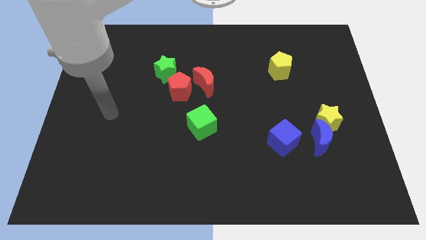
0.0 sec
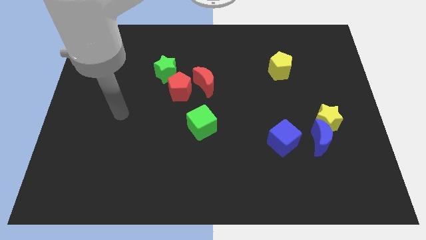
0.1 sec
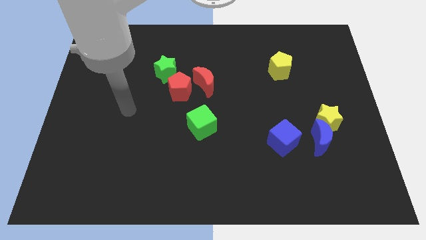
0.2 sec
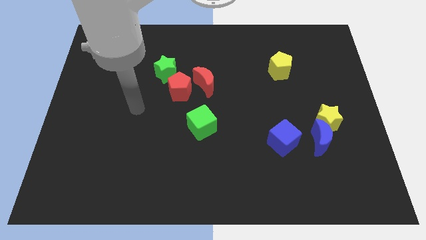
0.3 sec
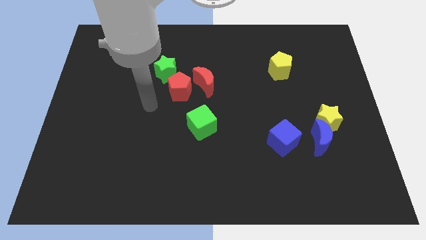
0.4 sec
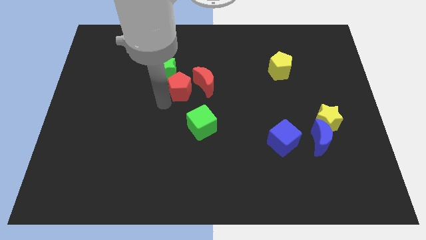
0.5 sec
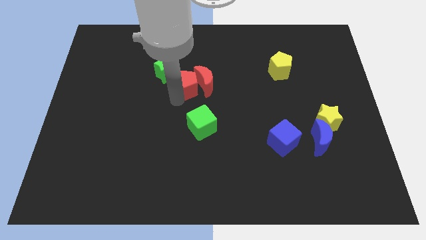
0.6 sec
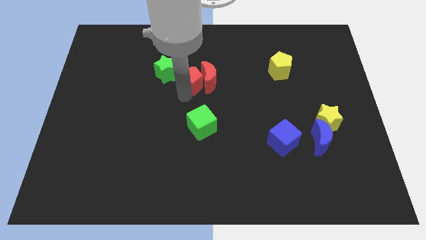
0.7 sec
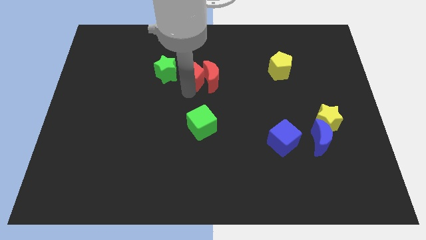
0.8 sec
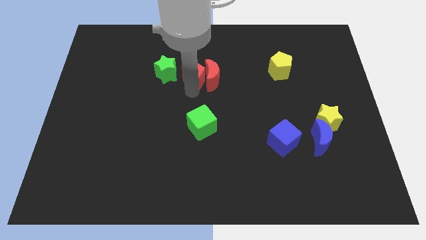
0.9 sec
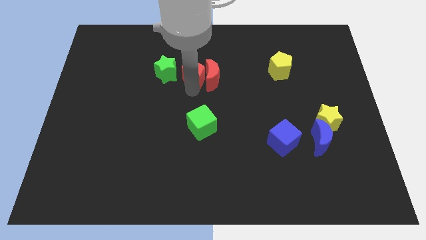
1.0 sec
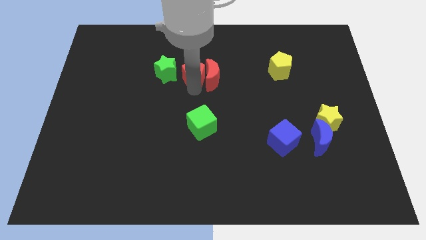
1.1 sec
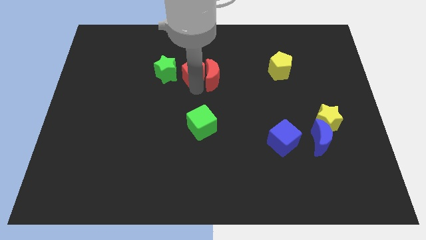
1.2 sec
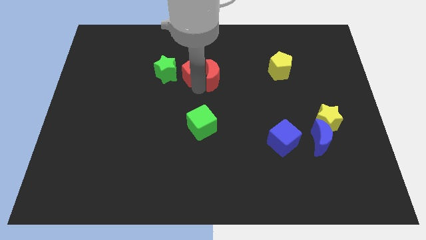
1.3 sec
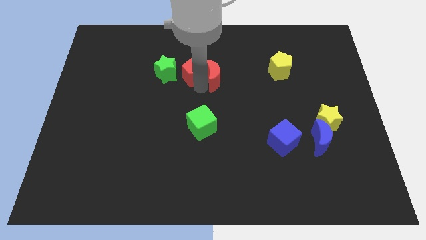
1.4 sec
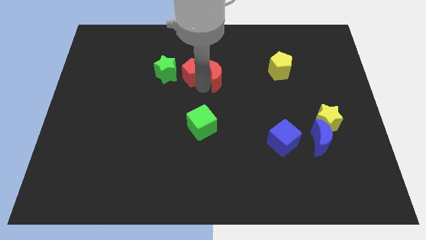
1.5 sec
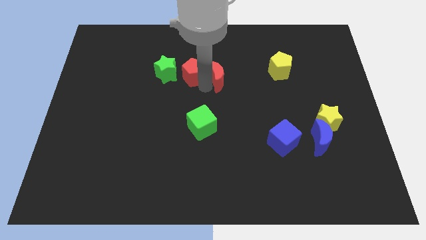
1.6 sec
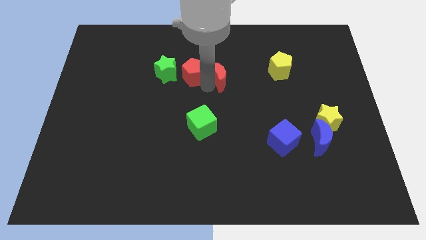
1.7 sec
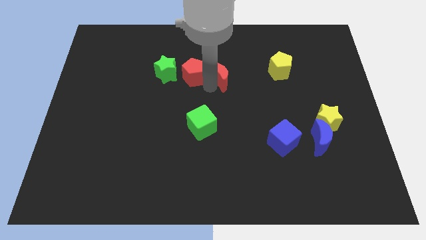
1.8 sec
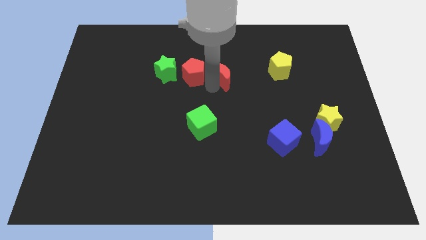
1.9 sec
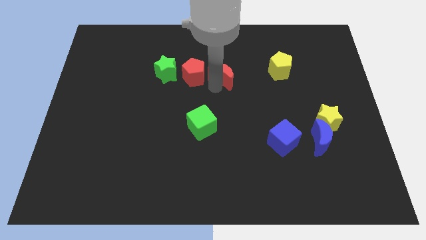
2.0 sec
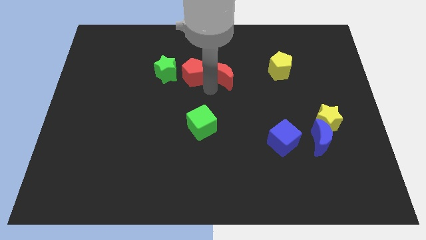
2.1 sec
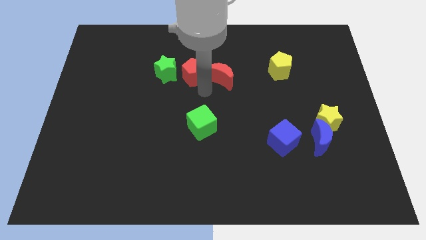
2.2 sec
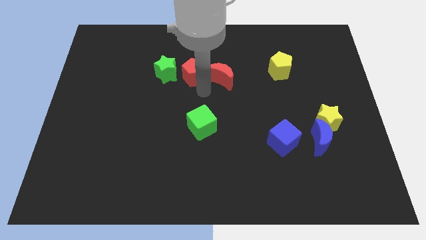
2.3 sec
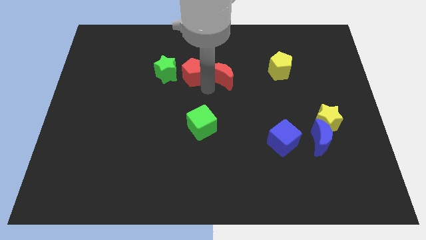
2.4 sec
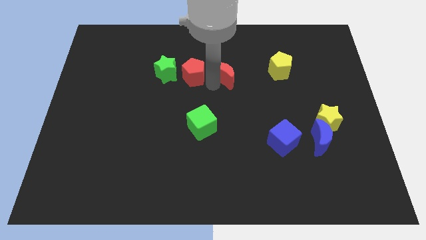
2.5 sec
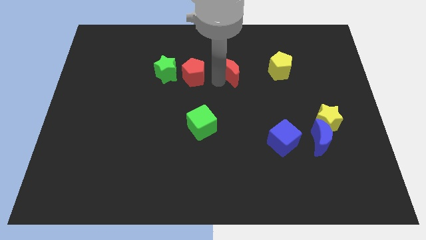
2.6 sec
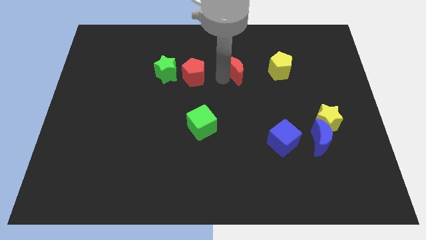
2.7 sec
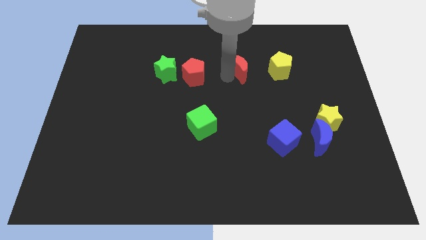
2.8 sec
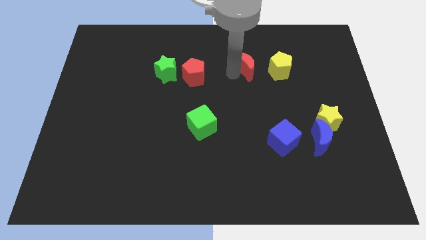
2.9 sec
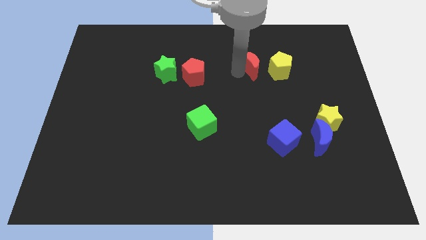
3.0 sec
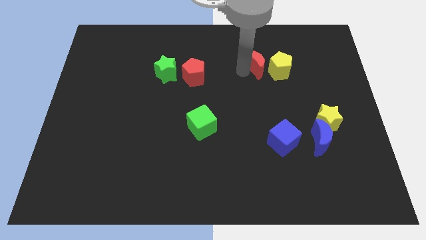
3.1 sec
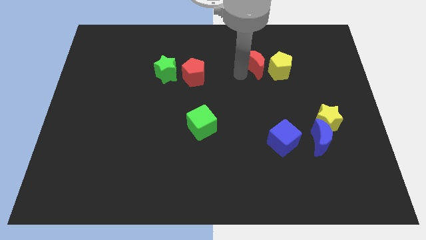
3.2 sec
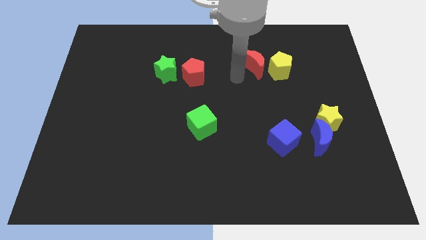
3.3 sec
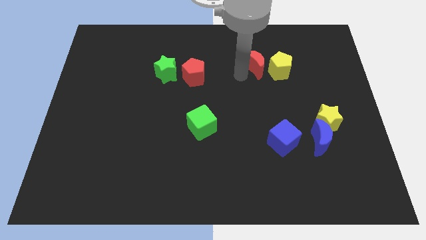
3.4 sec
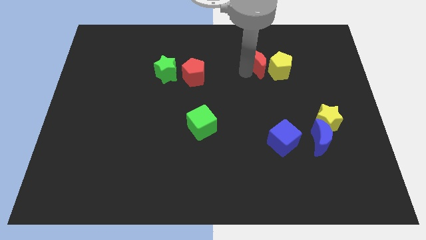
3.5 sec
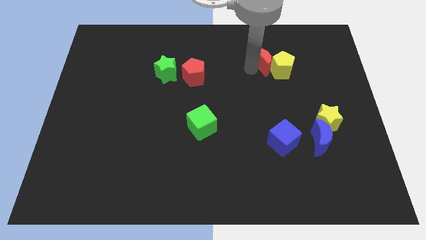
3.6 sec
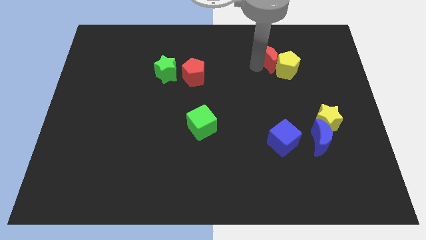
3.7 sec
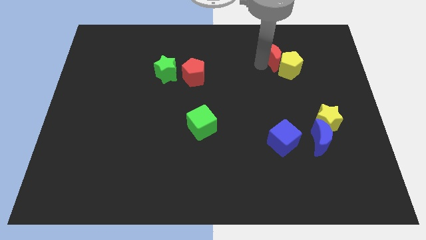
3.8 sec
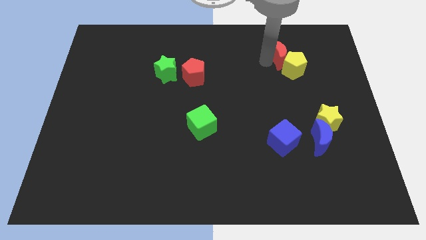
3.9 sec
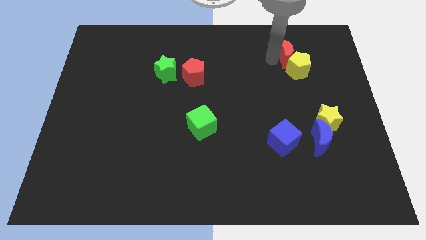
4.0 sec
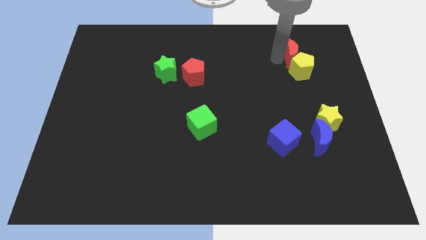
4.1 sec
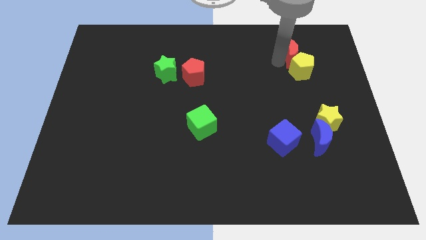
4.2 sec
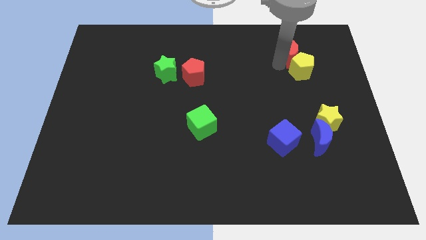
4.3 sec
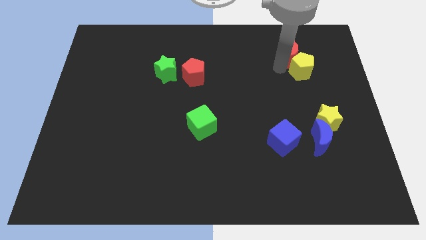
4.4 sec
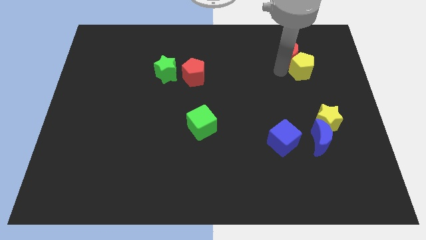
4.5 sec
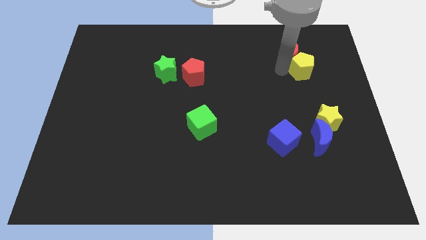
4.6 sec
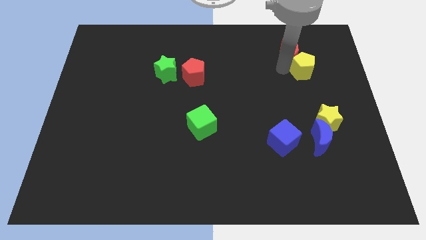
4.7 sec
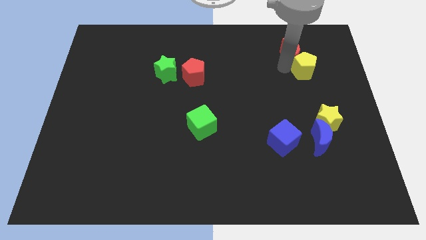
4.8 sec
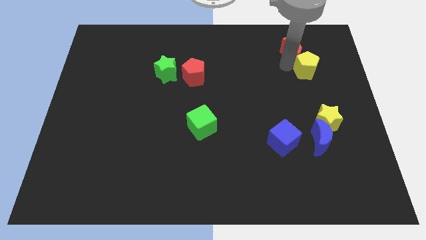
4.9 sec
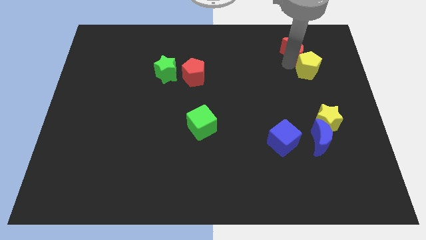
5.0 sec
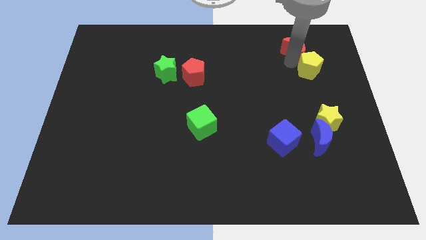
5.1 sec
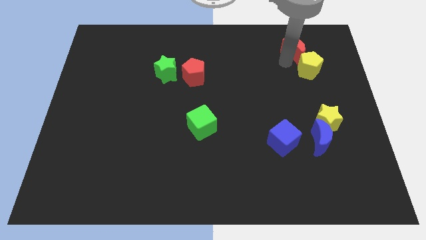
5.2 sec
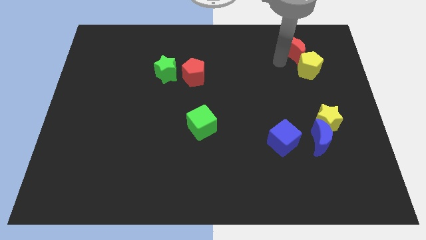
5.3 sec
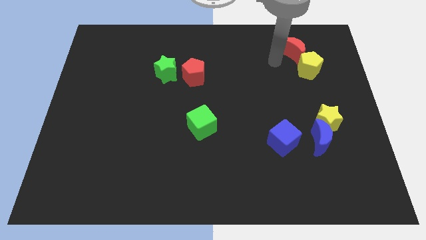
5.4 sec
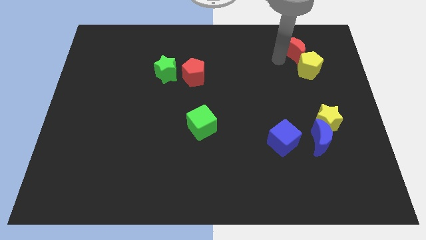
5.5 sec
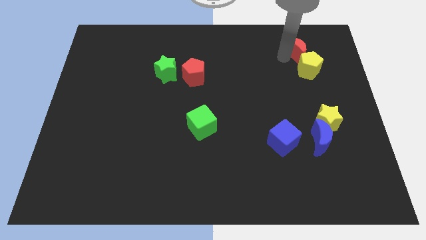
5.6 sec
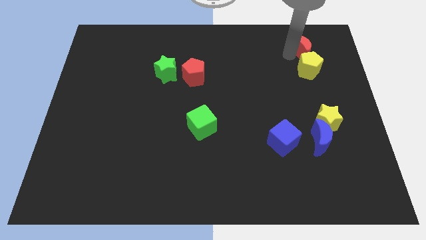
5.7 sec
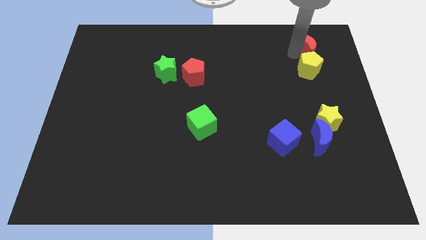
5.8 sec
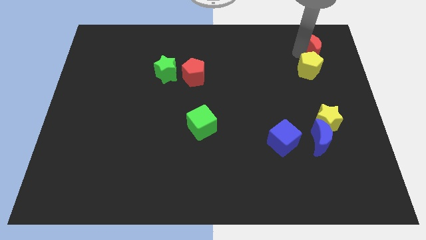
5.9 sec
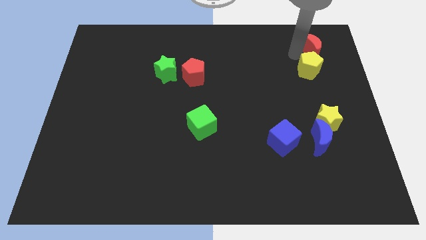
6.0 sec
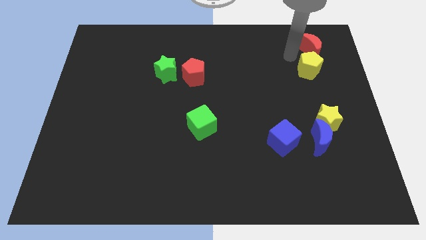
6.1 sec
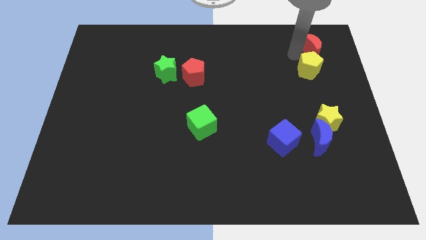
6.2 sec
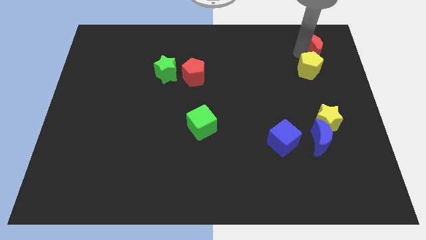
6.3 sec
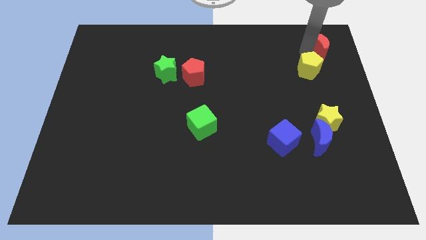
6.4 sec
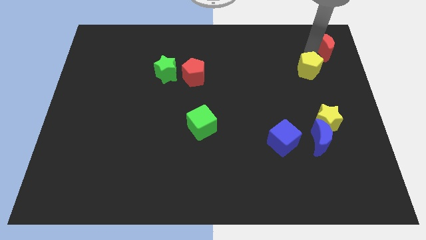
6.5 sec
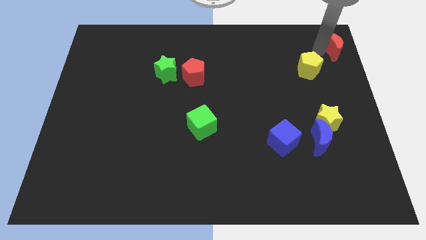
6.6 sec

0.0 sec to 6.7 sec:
push the red moon to the upper right corner
